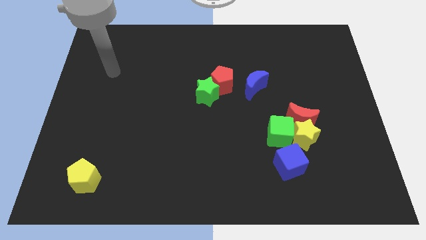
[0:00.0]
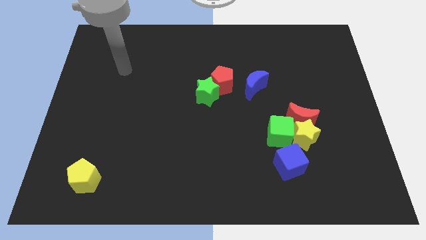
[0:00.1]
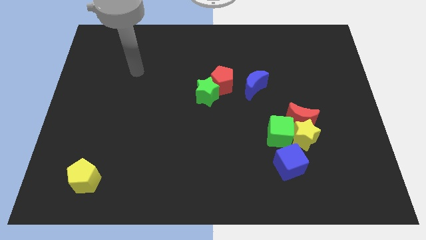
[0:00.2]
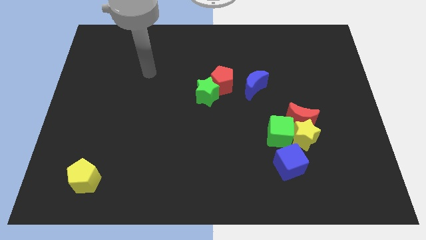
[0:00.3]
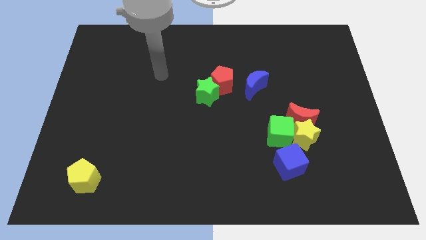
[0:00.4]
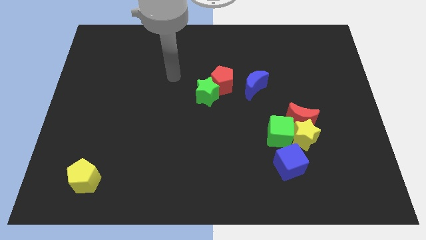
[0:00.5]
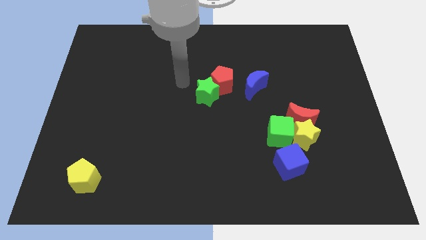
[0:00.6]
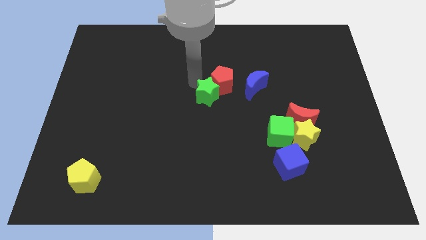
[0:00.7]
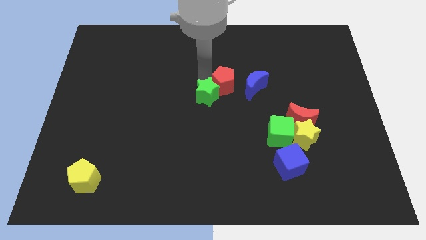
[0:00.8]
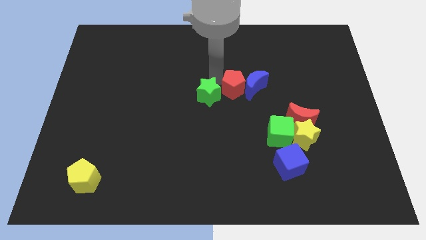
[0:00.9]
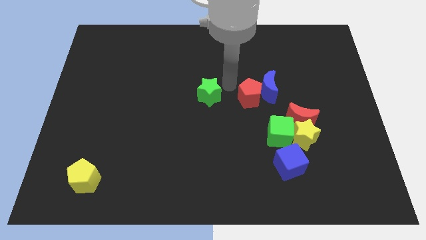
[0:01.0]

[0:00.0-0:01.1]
pull the green star apart from the red pentagon

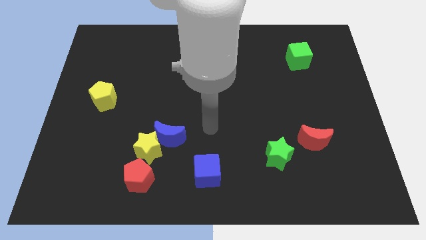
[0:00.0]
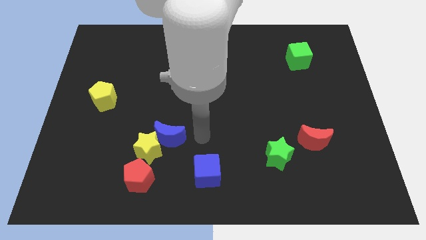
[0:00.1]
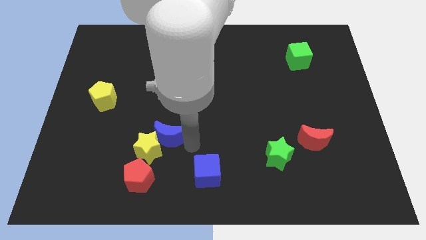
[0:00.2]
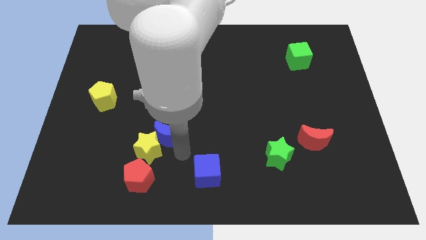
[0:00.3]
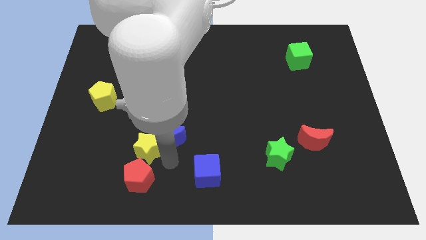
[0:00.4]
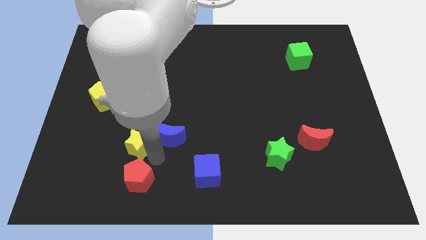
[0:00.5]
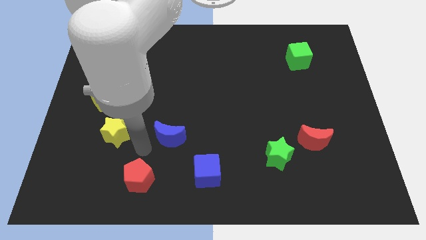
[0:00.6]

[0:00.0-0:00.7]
separate the blue moon from the yellow star

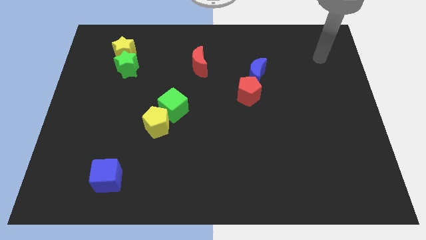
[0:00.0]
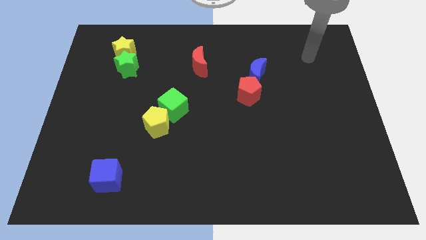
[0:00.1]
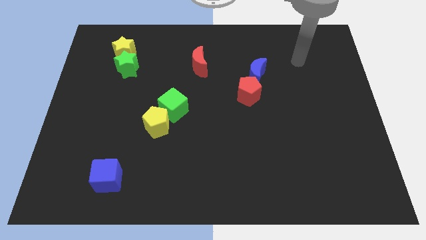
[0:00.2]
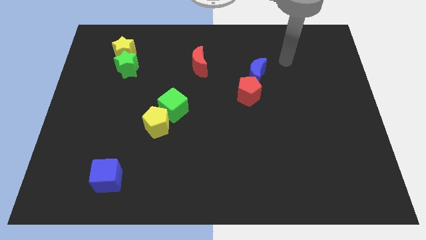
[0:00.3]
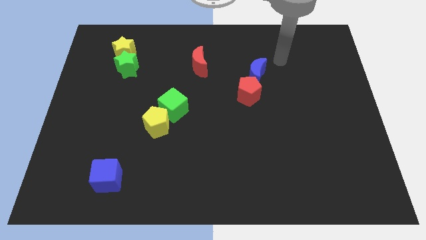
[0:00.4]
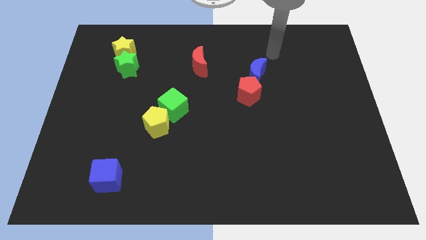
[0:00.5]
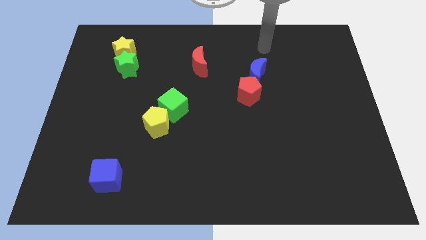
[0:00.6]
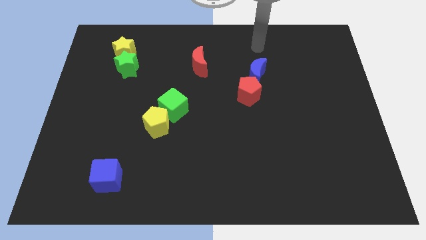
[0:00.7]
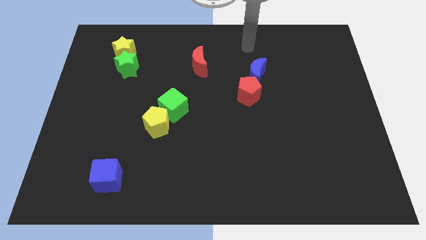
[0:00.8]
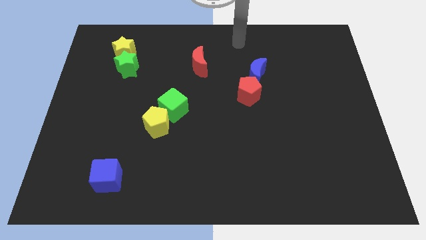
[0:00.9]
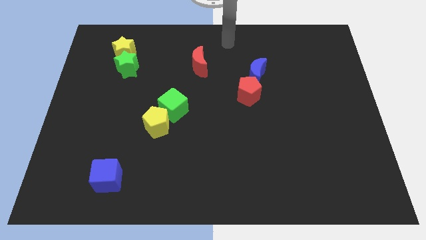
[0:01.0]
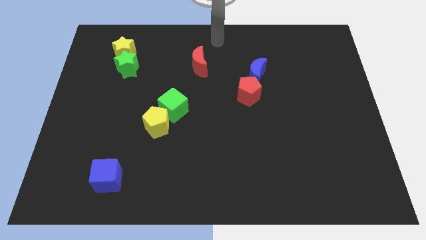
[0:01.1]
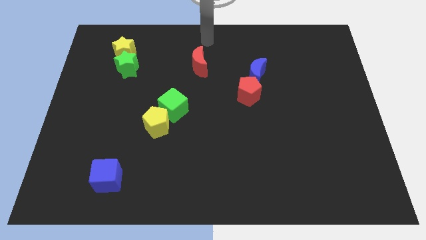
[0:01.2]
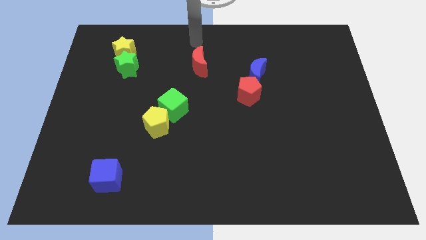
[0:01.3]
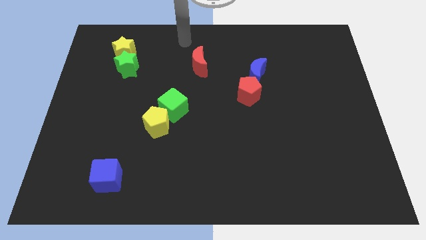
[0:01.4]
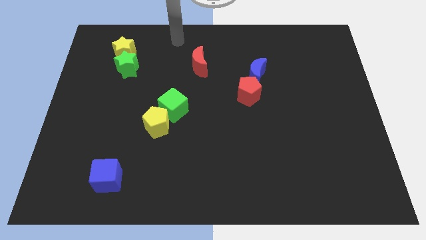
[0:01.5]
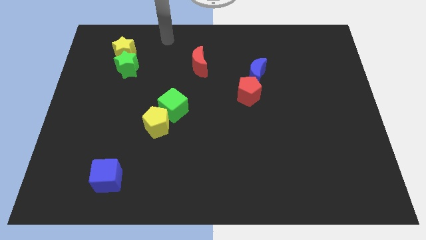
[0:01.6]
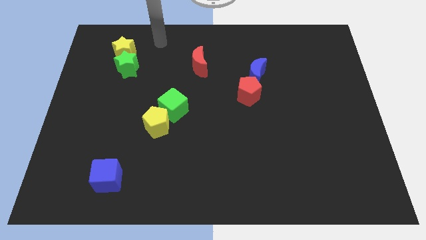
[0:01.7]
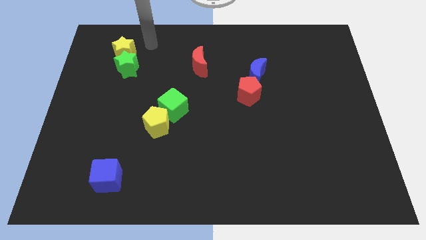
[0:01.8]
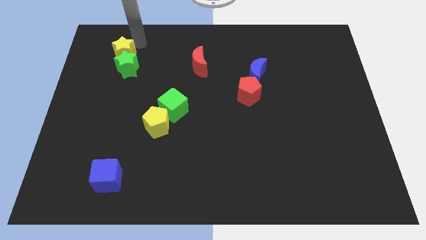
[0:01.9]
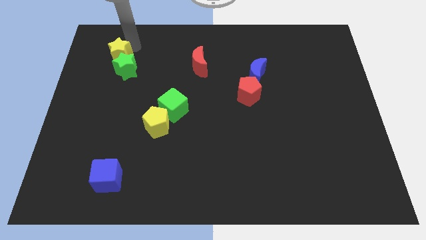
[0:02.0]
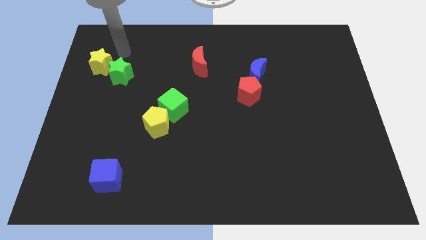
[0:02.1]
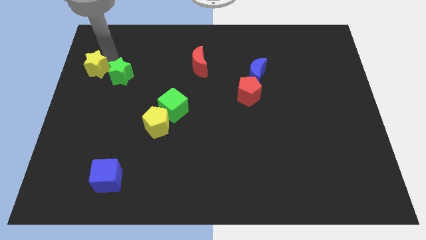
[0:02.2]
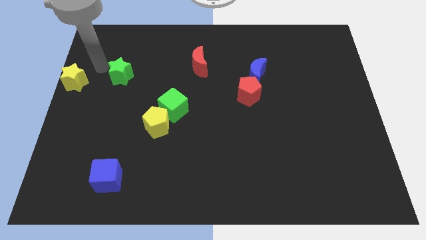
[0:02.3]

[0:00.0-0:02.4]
pull the green star apart from the yellow star

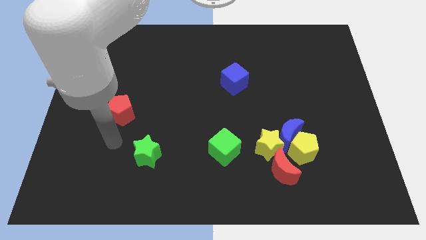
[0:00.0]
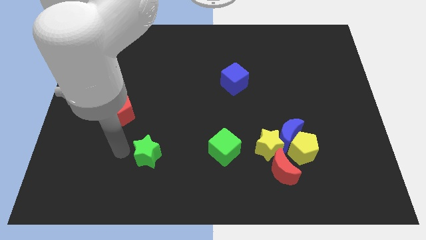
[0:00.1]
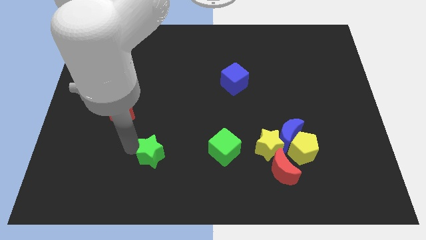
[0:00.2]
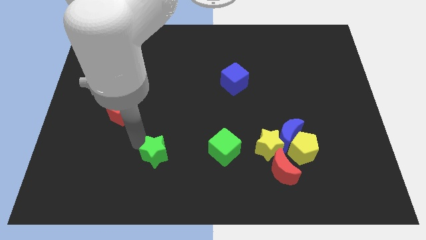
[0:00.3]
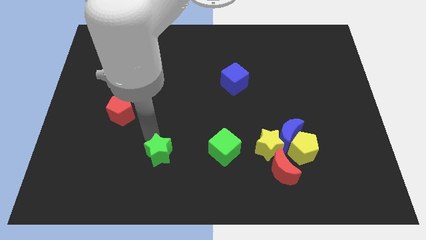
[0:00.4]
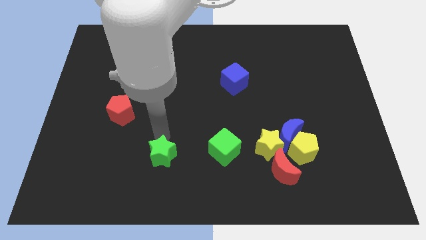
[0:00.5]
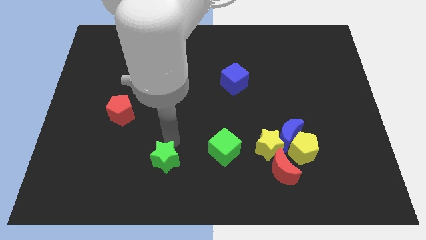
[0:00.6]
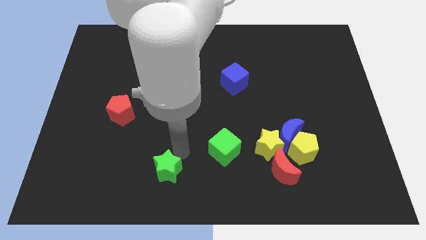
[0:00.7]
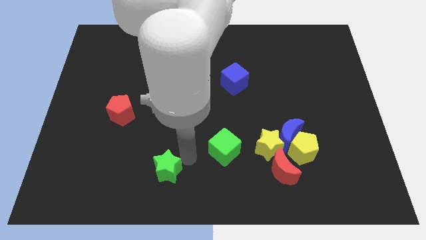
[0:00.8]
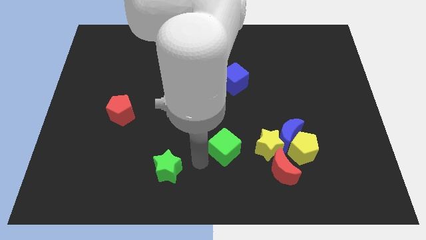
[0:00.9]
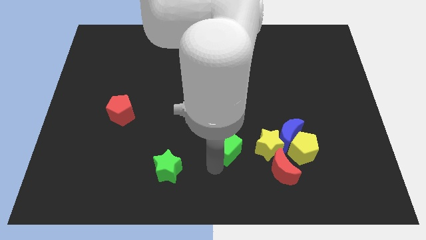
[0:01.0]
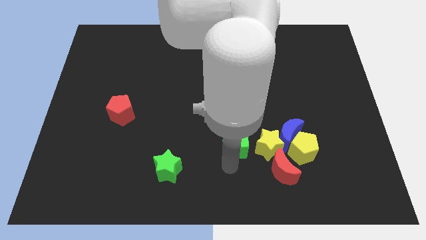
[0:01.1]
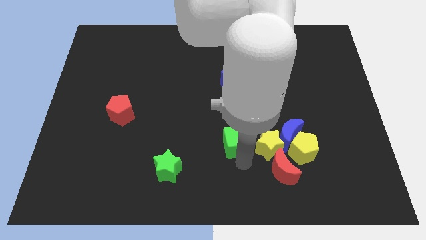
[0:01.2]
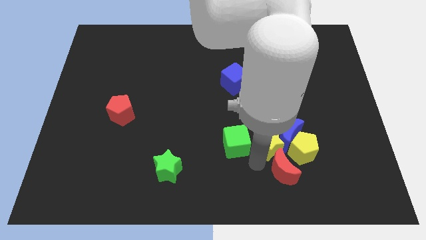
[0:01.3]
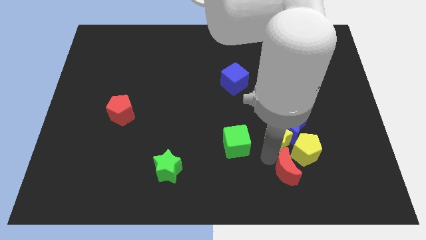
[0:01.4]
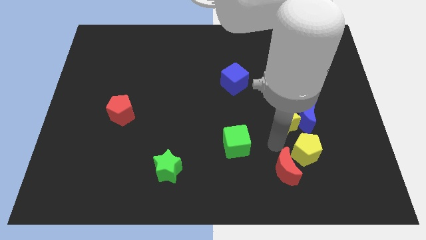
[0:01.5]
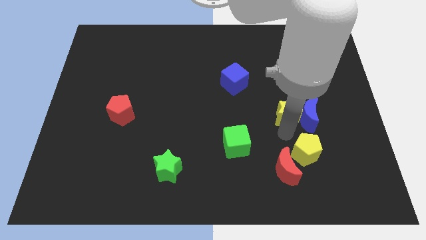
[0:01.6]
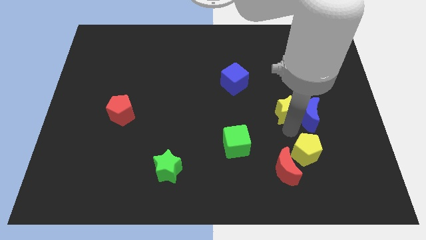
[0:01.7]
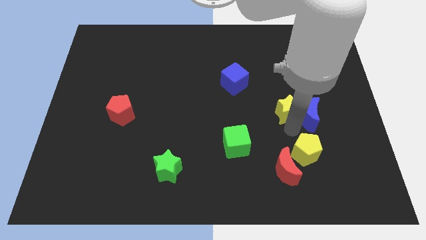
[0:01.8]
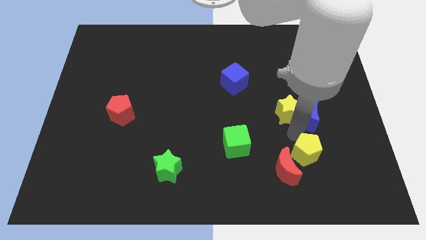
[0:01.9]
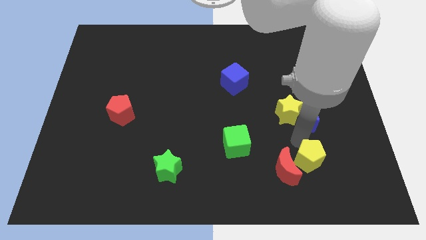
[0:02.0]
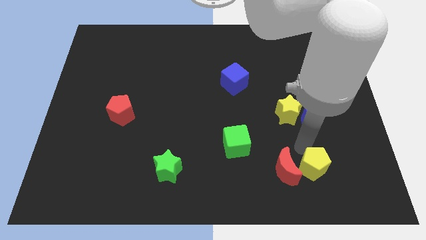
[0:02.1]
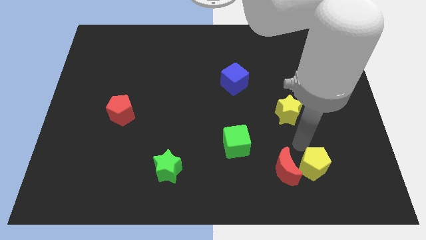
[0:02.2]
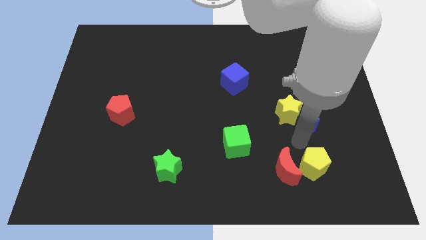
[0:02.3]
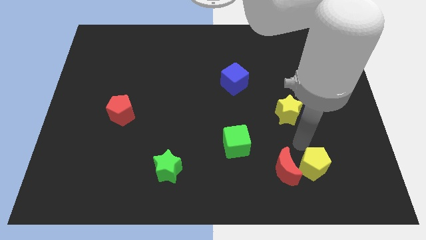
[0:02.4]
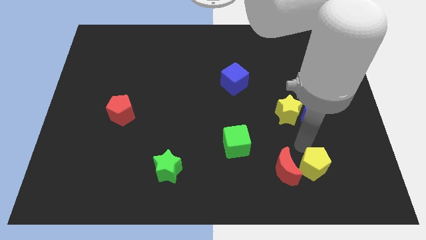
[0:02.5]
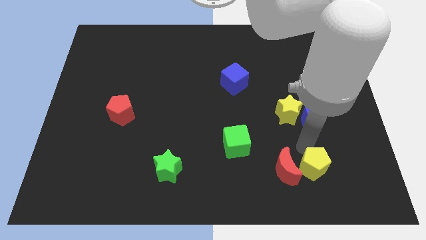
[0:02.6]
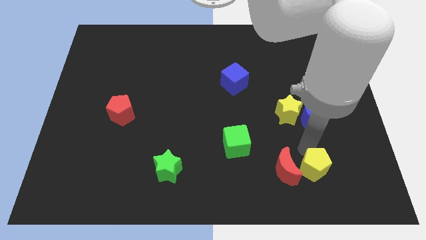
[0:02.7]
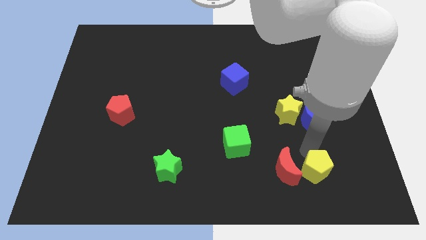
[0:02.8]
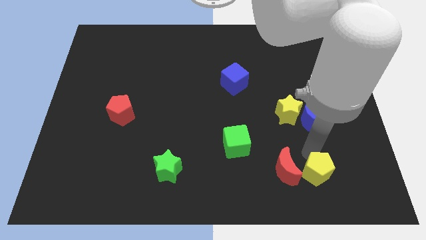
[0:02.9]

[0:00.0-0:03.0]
move the yellow pentagon away from the clump

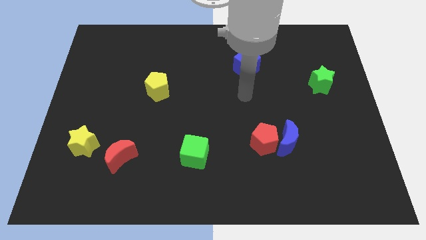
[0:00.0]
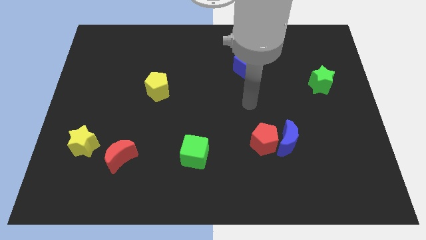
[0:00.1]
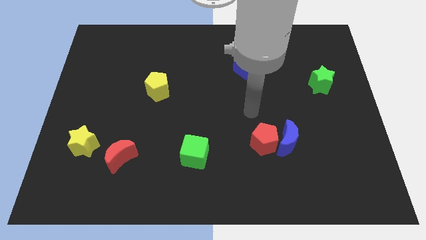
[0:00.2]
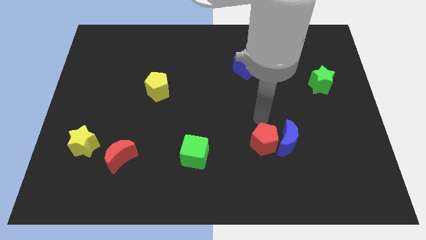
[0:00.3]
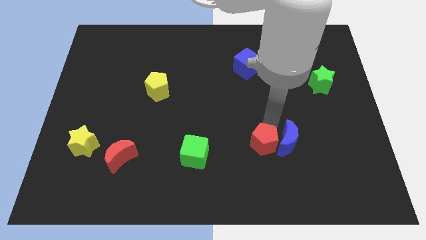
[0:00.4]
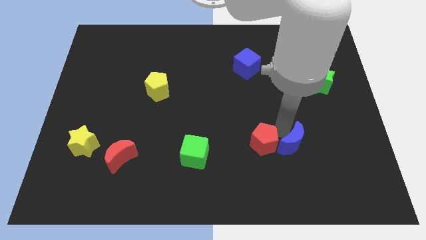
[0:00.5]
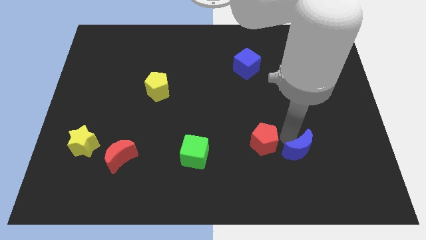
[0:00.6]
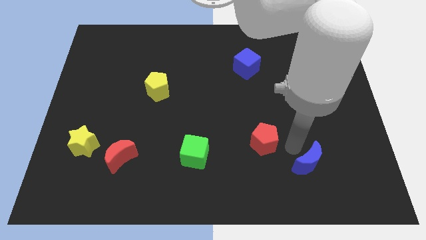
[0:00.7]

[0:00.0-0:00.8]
separate the red pentagon from the blue moon

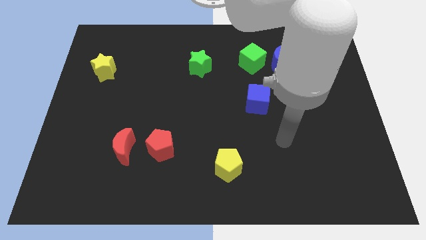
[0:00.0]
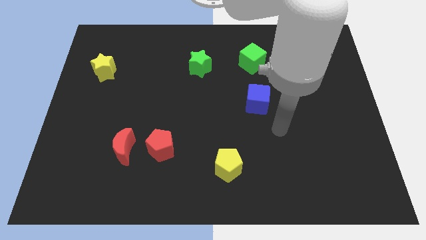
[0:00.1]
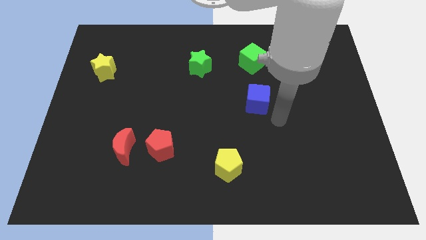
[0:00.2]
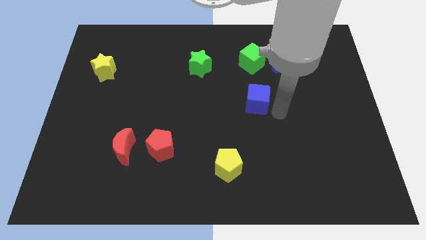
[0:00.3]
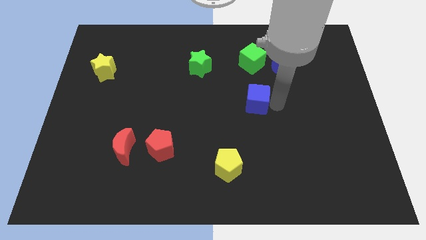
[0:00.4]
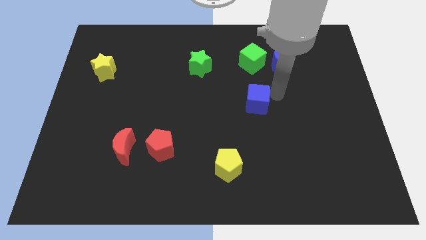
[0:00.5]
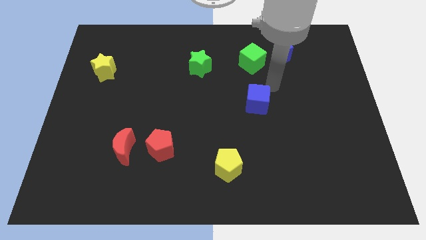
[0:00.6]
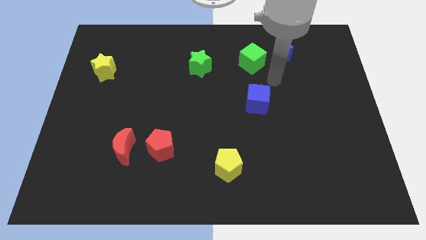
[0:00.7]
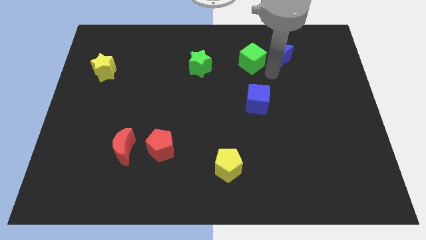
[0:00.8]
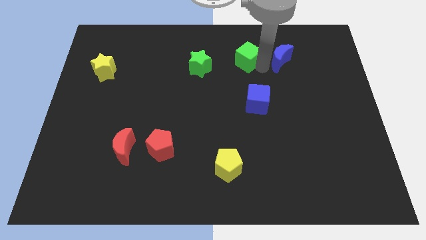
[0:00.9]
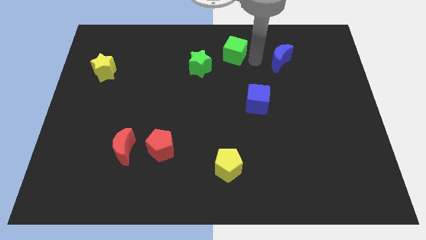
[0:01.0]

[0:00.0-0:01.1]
separate the blue moon from the green cube

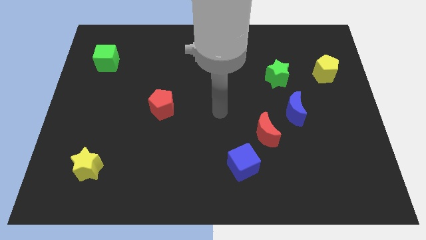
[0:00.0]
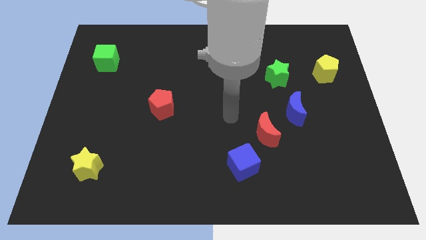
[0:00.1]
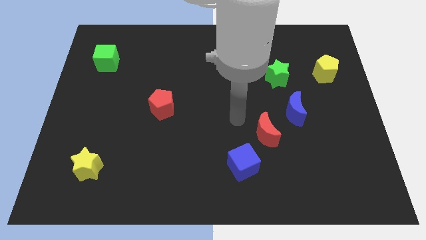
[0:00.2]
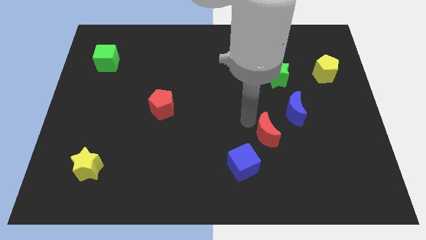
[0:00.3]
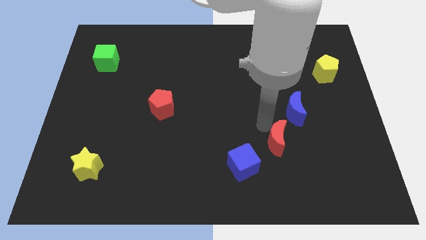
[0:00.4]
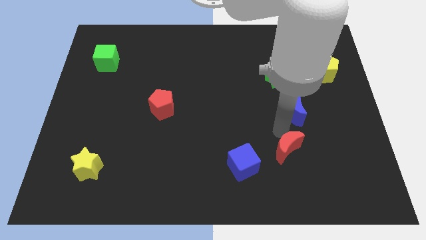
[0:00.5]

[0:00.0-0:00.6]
separate the blue moon from the red moon
